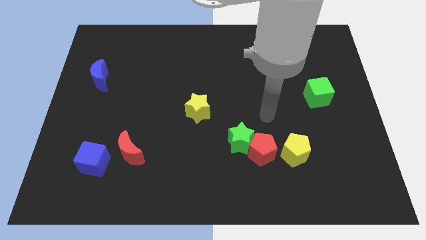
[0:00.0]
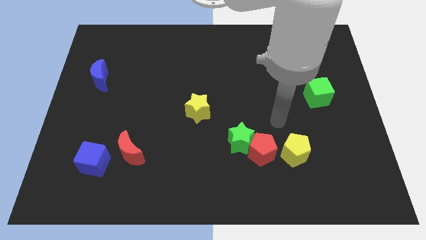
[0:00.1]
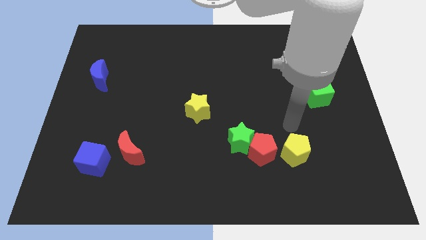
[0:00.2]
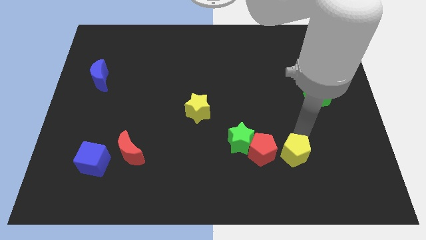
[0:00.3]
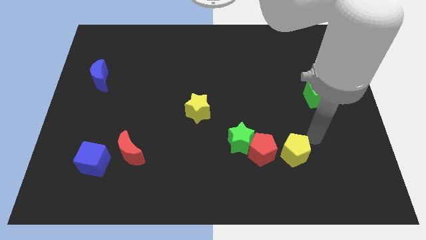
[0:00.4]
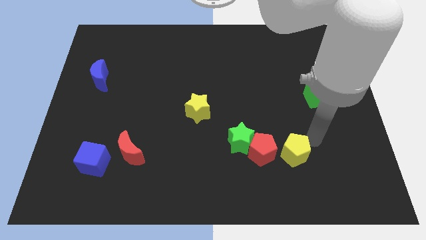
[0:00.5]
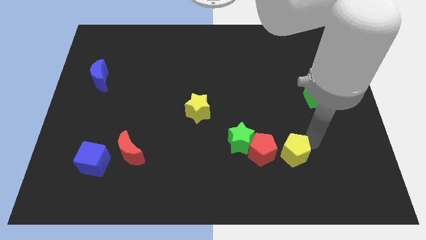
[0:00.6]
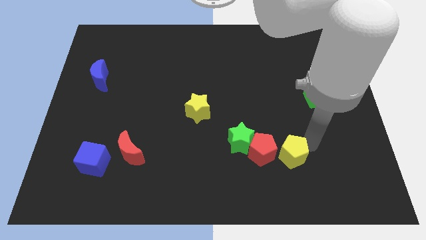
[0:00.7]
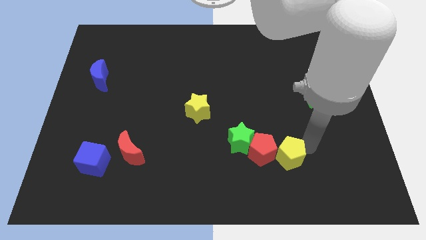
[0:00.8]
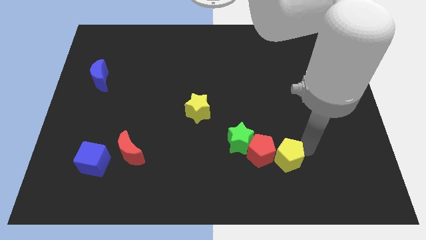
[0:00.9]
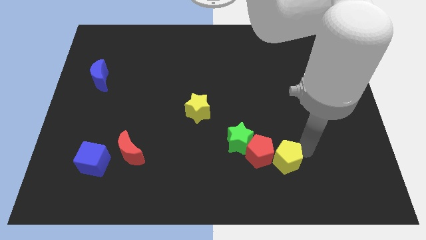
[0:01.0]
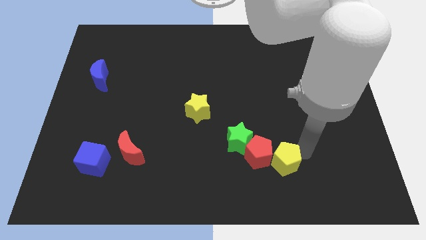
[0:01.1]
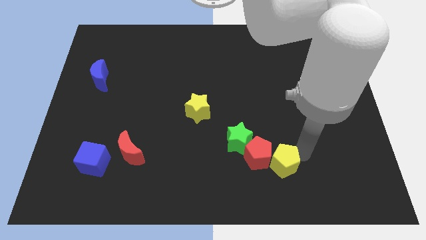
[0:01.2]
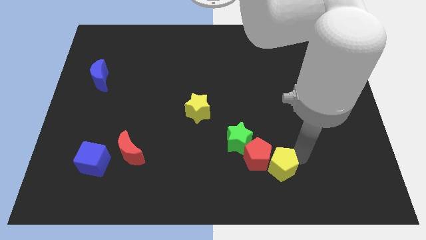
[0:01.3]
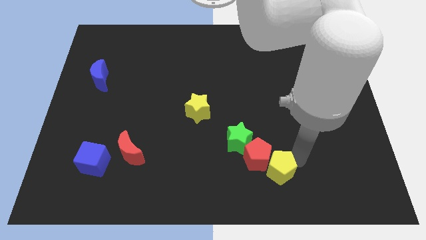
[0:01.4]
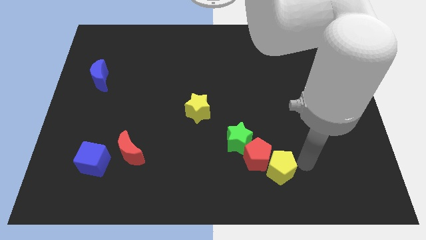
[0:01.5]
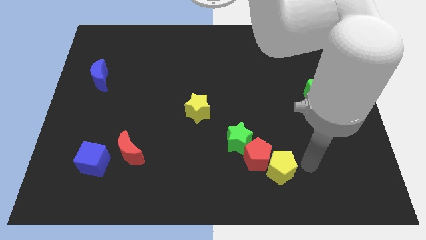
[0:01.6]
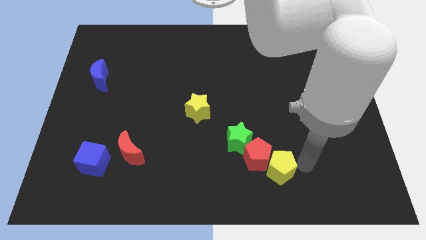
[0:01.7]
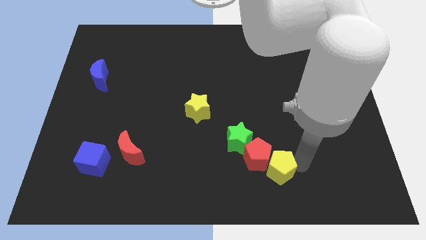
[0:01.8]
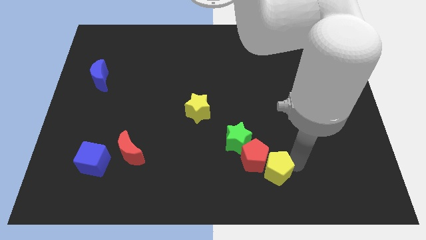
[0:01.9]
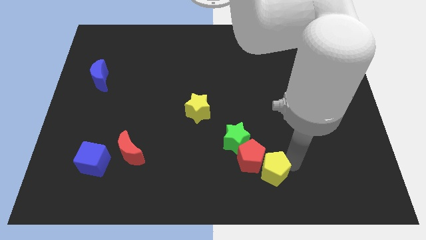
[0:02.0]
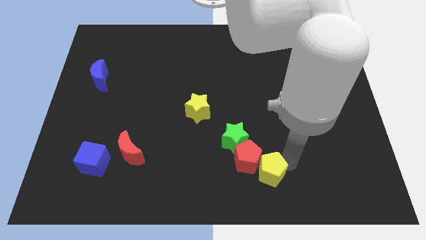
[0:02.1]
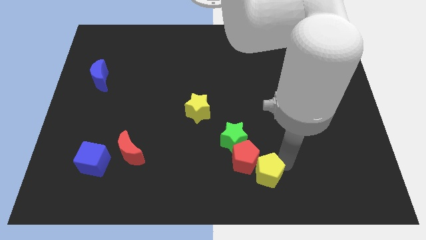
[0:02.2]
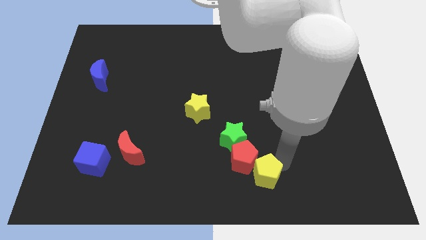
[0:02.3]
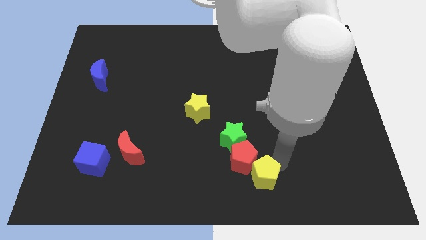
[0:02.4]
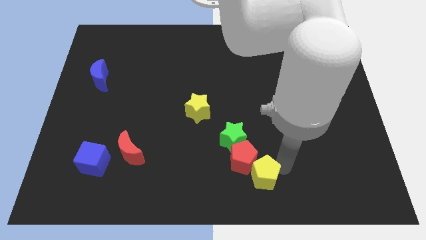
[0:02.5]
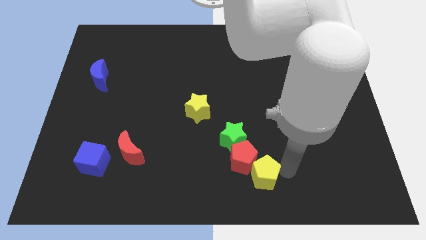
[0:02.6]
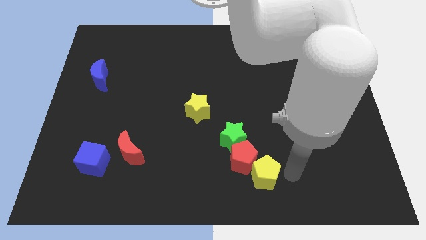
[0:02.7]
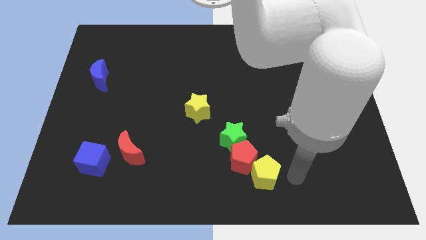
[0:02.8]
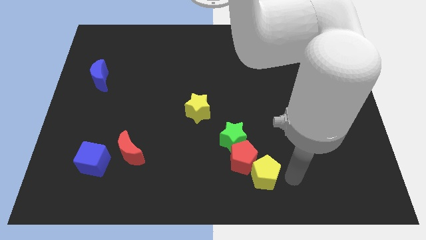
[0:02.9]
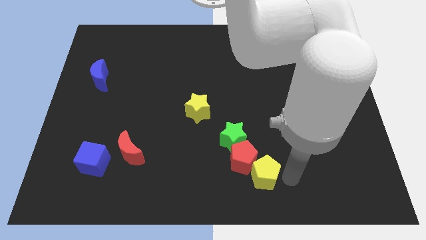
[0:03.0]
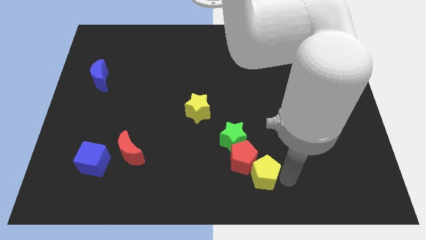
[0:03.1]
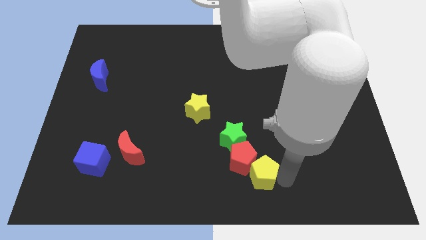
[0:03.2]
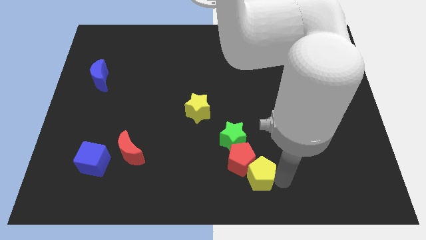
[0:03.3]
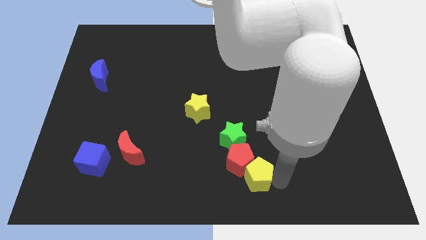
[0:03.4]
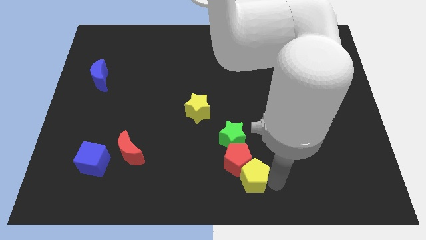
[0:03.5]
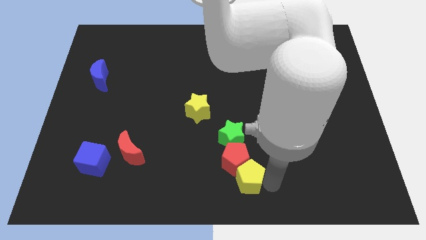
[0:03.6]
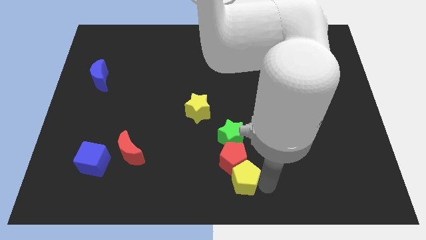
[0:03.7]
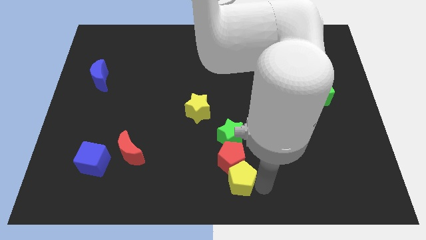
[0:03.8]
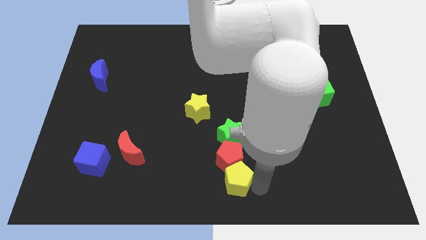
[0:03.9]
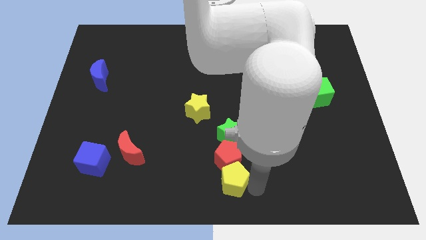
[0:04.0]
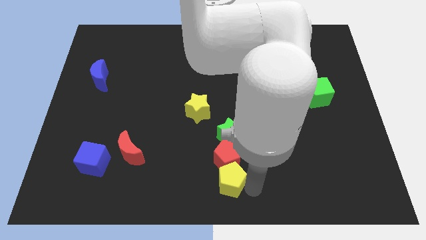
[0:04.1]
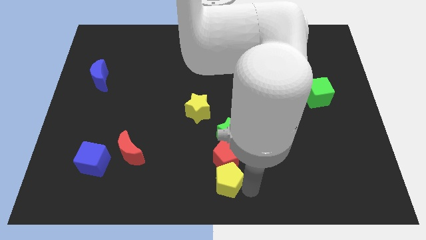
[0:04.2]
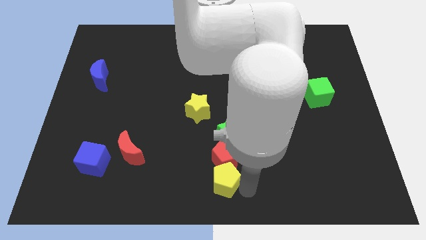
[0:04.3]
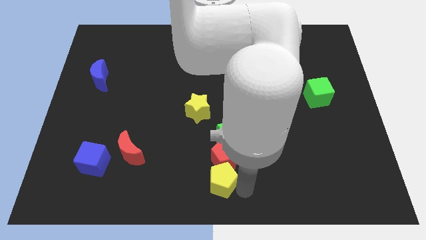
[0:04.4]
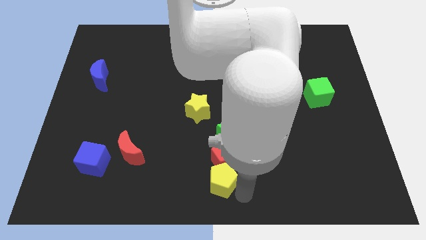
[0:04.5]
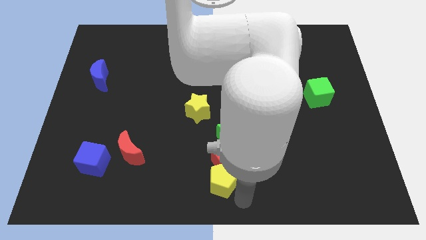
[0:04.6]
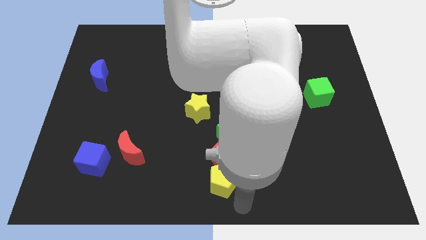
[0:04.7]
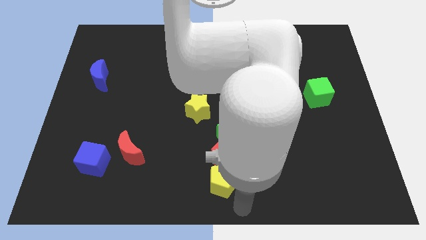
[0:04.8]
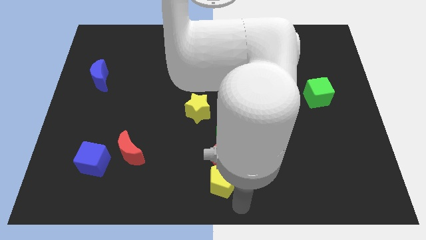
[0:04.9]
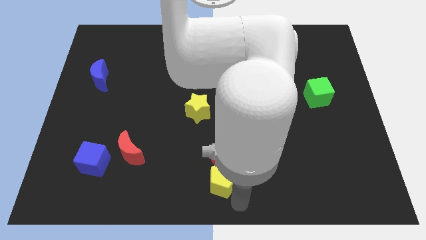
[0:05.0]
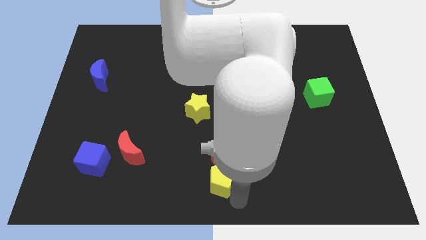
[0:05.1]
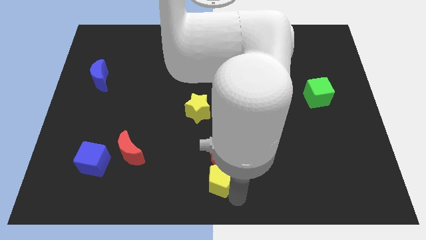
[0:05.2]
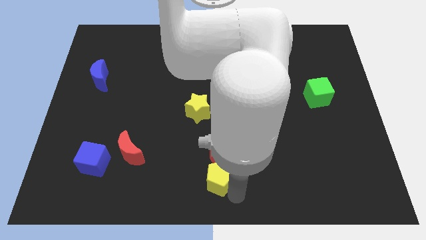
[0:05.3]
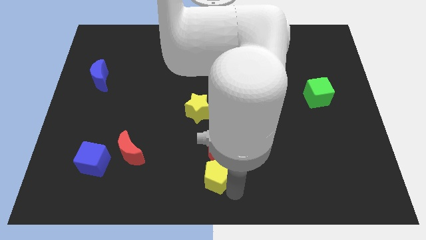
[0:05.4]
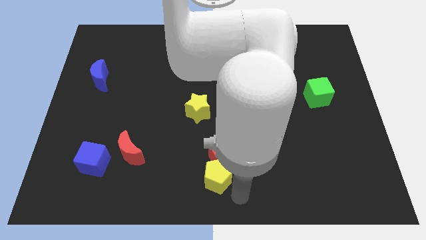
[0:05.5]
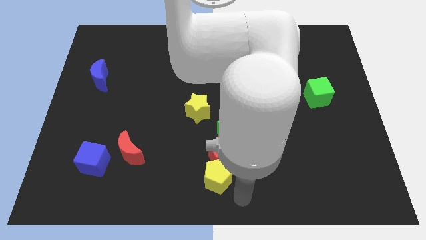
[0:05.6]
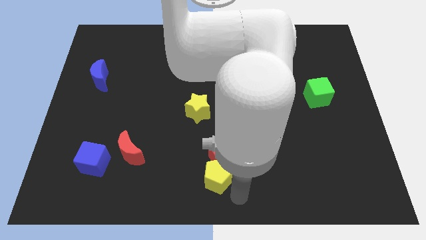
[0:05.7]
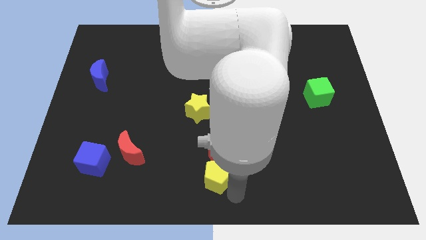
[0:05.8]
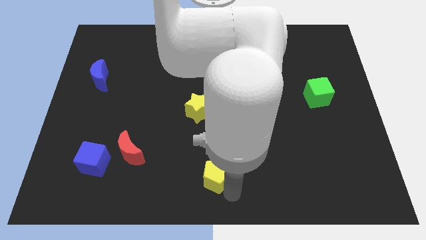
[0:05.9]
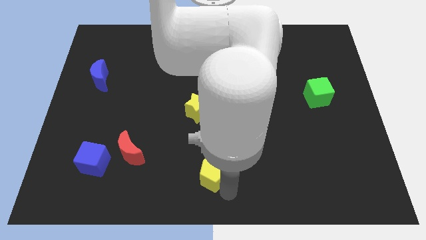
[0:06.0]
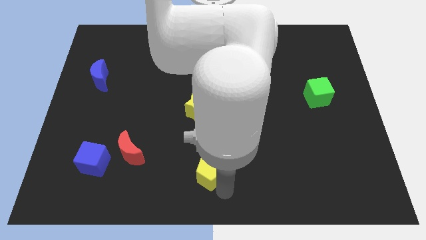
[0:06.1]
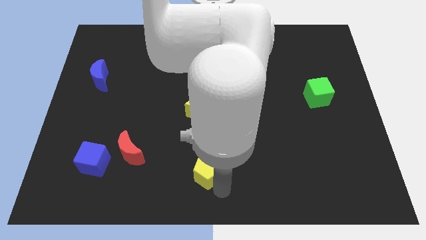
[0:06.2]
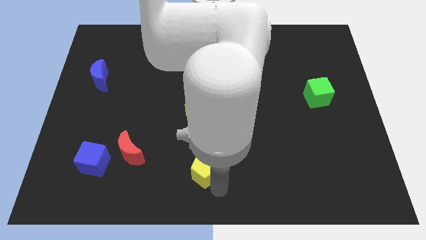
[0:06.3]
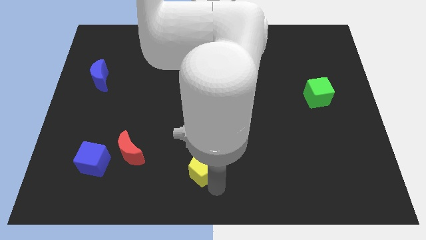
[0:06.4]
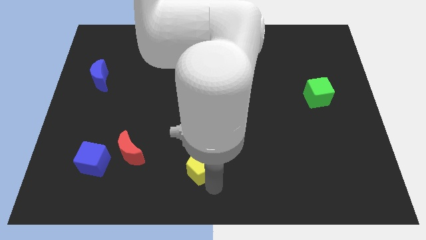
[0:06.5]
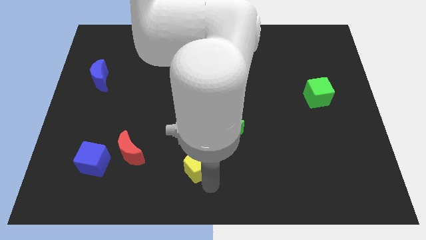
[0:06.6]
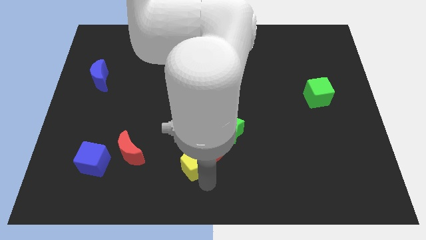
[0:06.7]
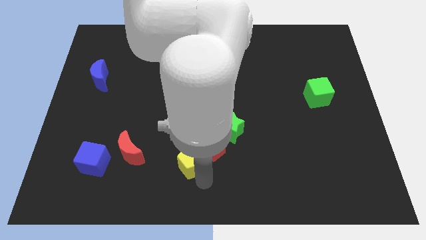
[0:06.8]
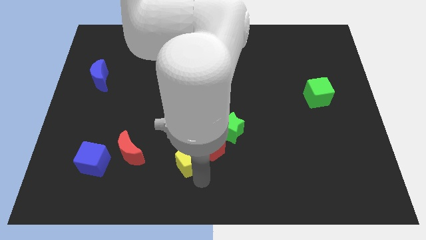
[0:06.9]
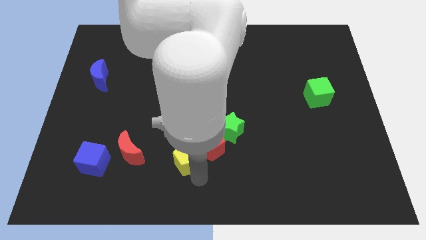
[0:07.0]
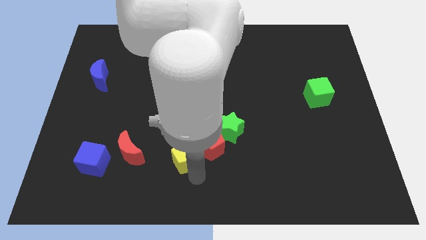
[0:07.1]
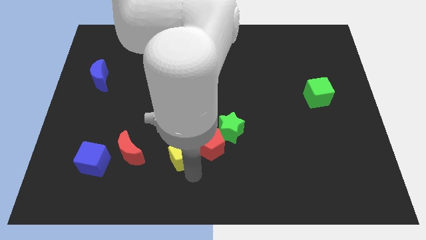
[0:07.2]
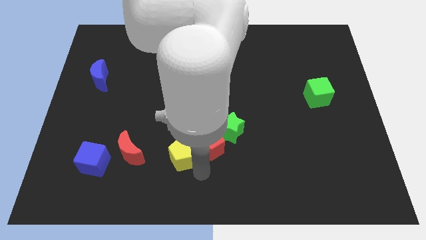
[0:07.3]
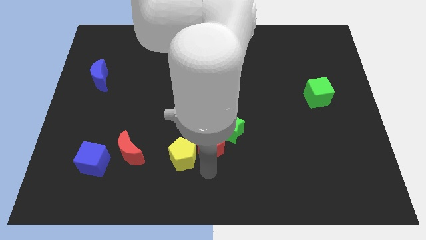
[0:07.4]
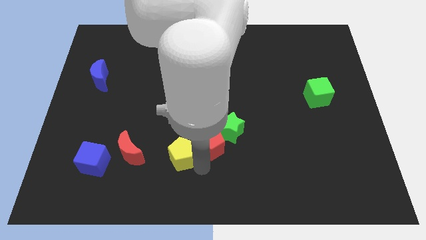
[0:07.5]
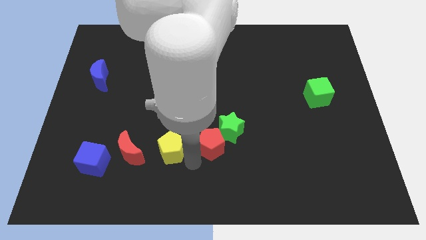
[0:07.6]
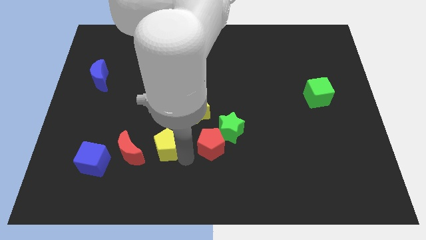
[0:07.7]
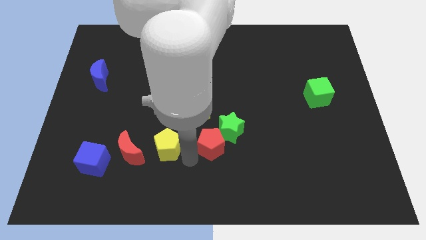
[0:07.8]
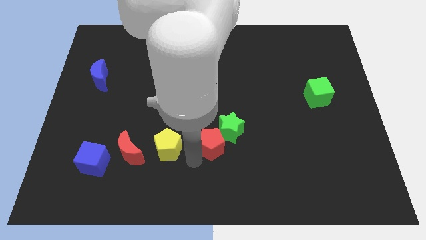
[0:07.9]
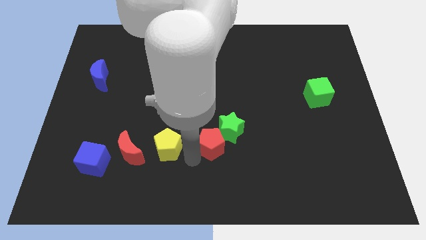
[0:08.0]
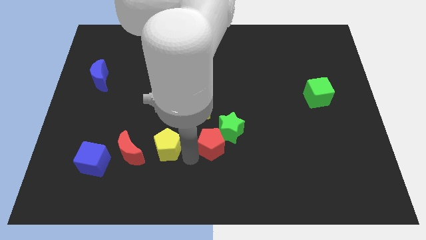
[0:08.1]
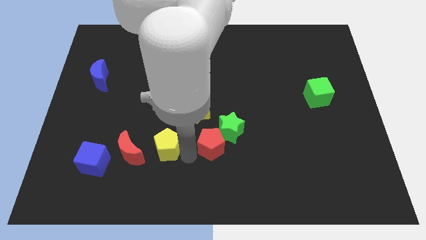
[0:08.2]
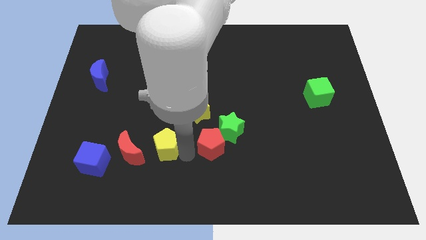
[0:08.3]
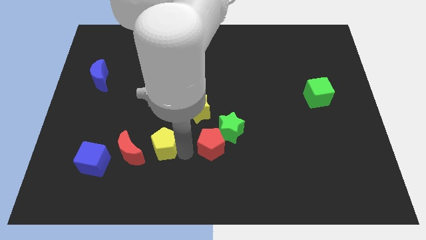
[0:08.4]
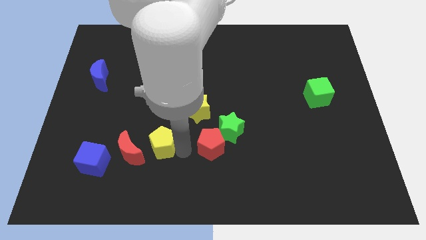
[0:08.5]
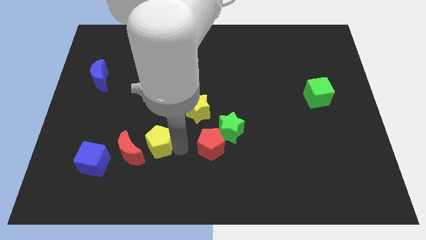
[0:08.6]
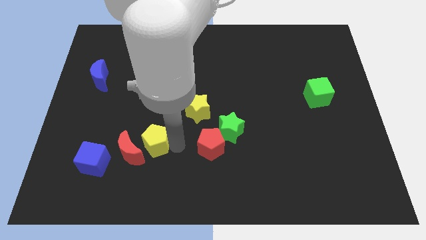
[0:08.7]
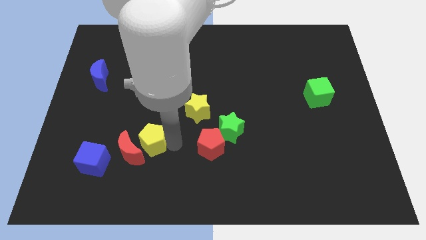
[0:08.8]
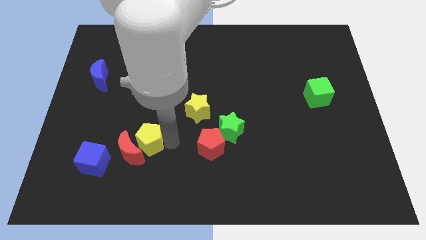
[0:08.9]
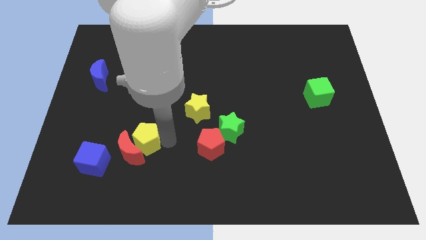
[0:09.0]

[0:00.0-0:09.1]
move the yellow pentagon diagonally up and to the right of the blue cube
